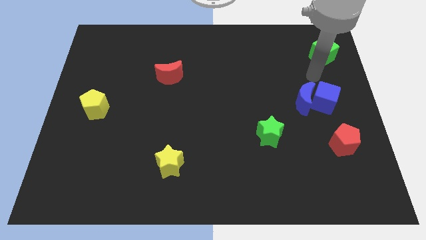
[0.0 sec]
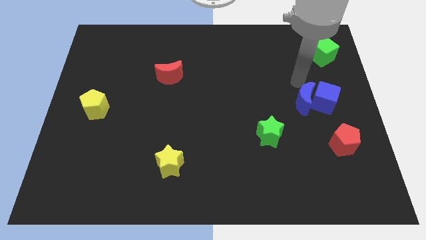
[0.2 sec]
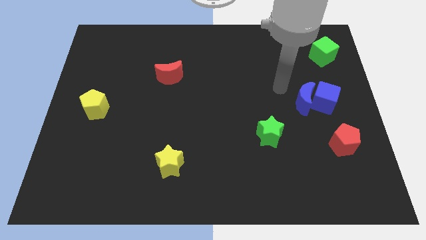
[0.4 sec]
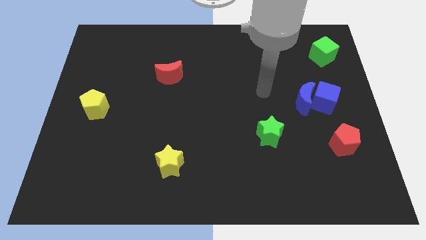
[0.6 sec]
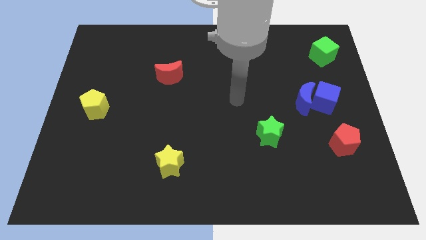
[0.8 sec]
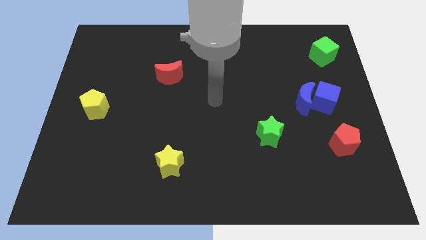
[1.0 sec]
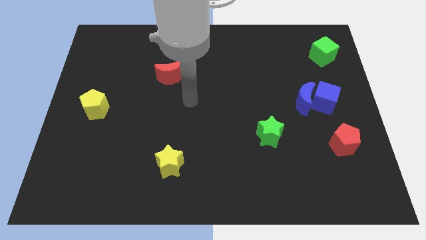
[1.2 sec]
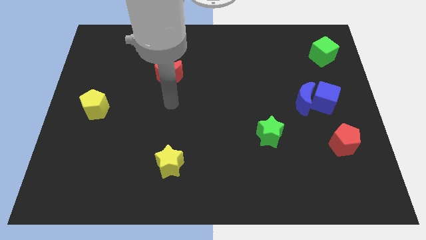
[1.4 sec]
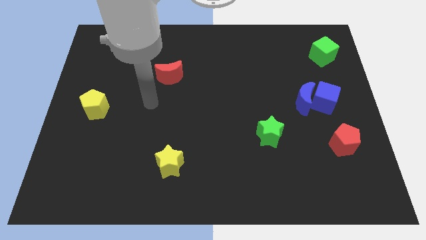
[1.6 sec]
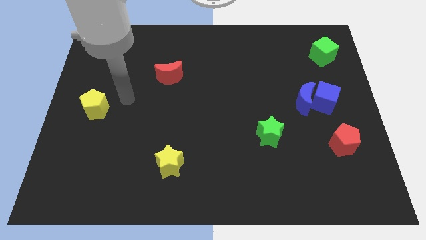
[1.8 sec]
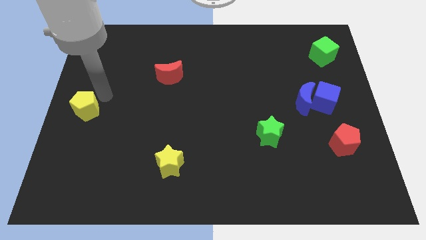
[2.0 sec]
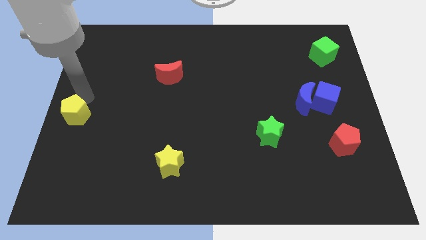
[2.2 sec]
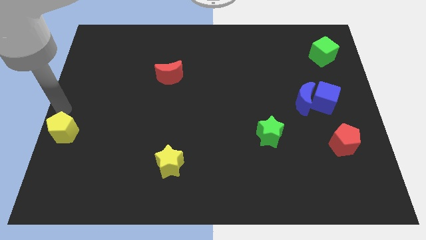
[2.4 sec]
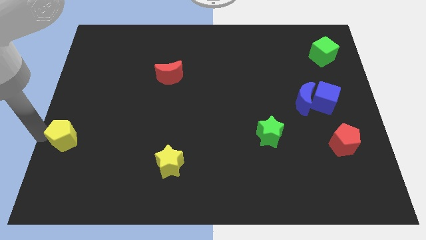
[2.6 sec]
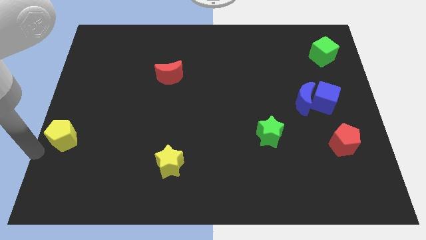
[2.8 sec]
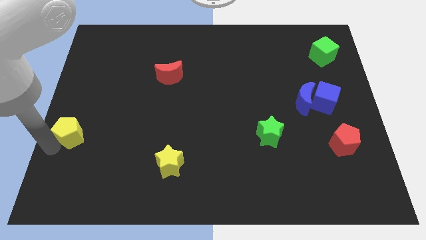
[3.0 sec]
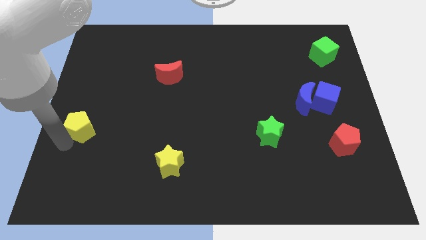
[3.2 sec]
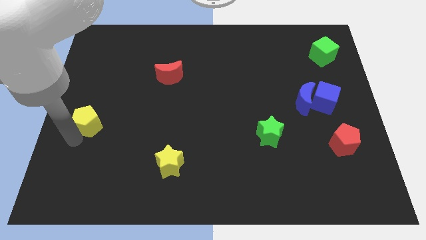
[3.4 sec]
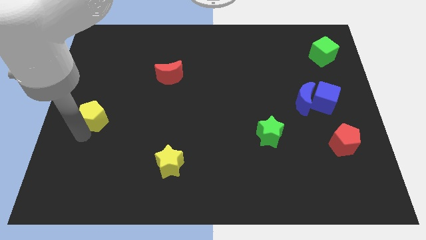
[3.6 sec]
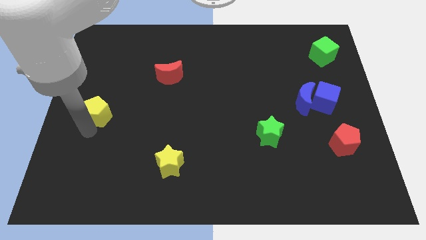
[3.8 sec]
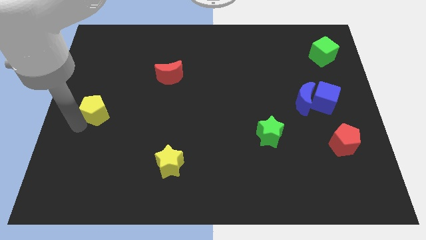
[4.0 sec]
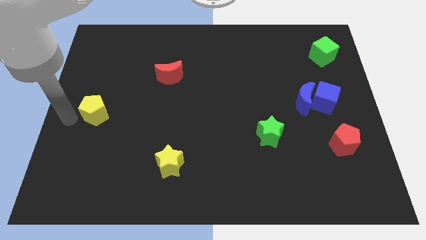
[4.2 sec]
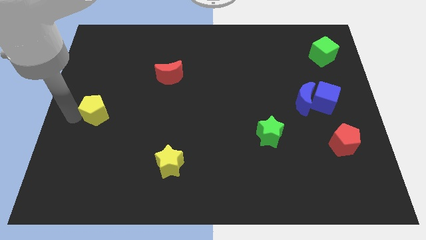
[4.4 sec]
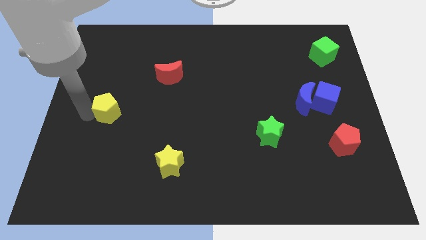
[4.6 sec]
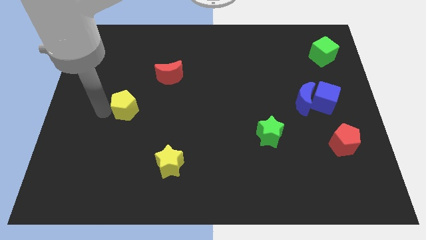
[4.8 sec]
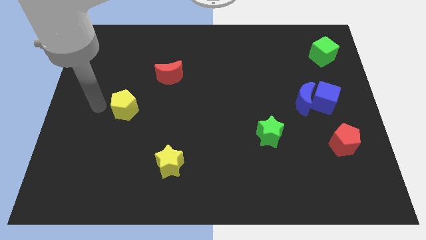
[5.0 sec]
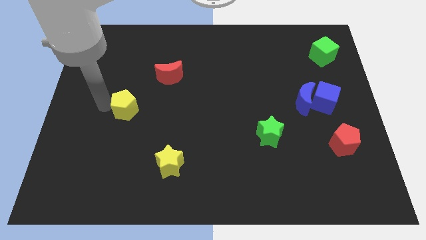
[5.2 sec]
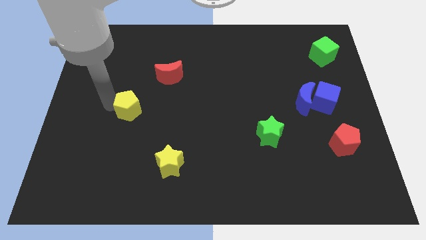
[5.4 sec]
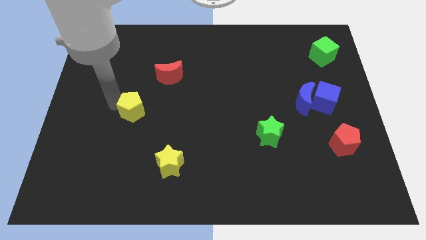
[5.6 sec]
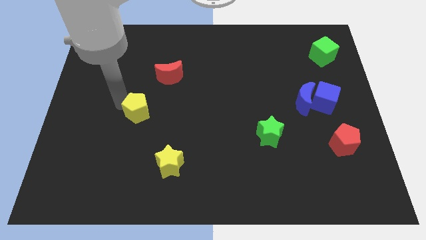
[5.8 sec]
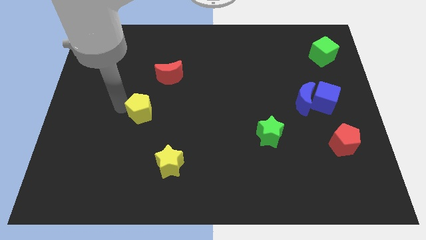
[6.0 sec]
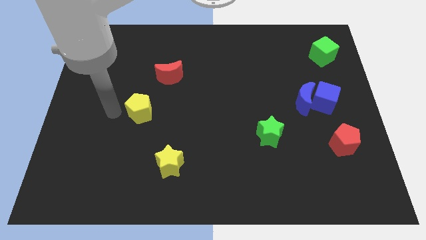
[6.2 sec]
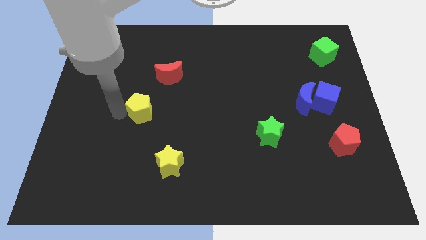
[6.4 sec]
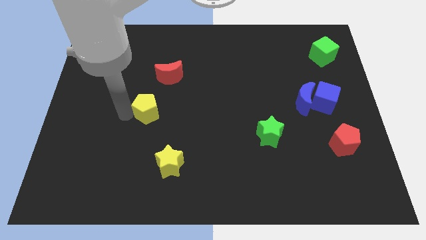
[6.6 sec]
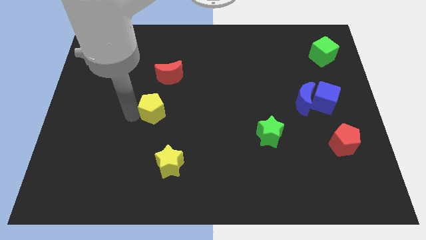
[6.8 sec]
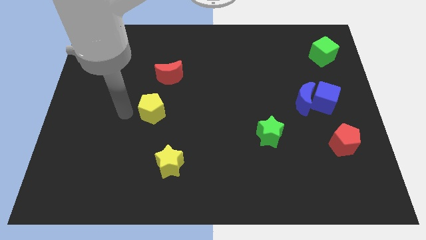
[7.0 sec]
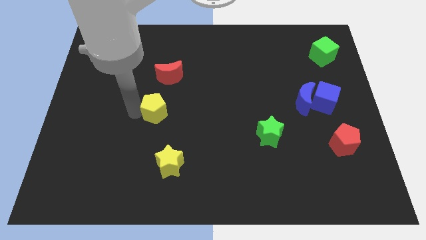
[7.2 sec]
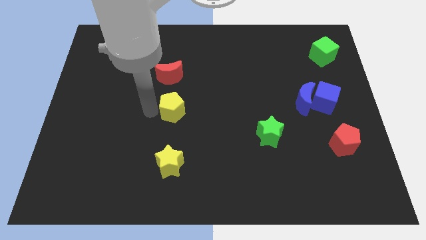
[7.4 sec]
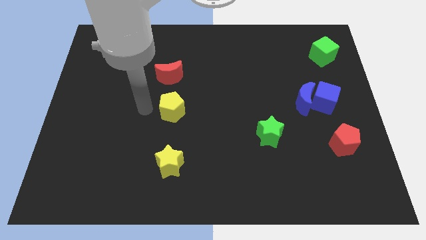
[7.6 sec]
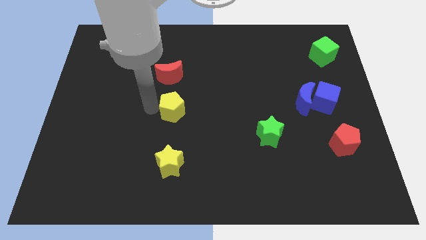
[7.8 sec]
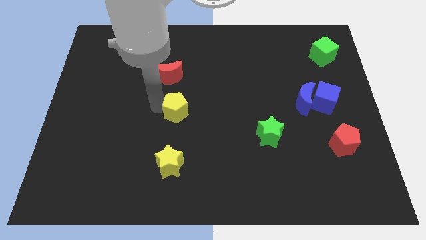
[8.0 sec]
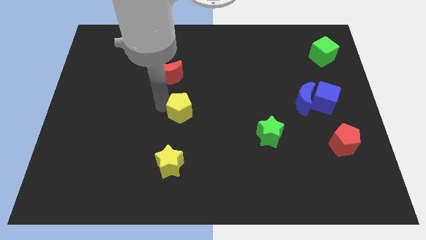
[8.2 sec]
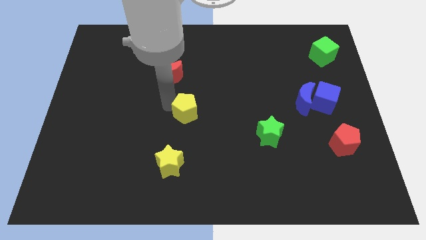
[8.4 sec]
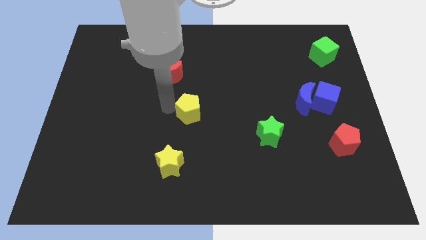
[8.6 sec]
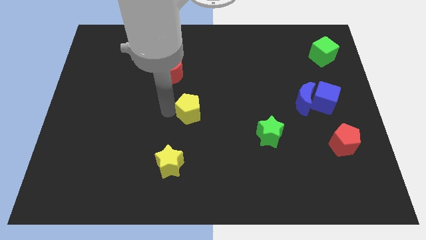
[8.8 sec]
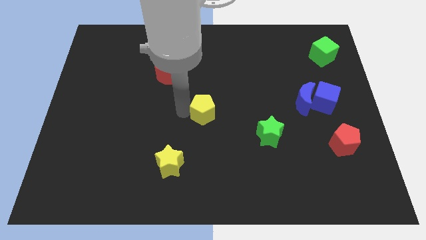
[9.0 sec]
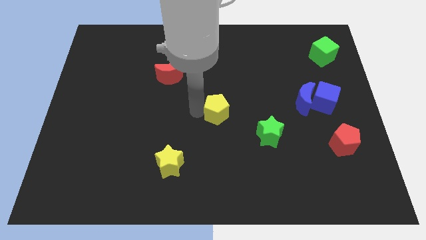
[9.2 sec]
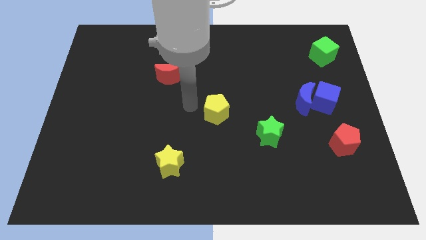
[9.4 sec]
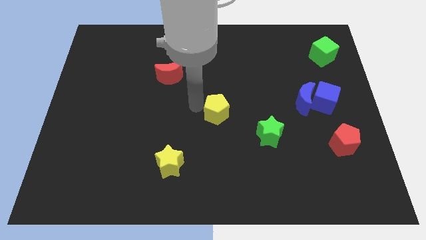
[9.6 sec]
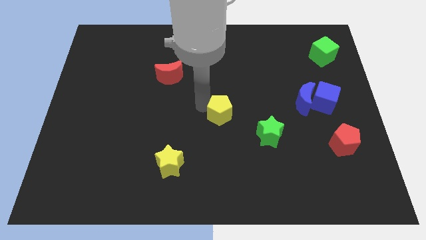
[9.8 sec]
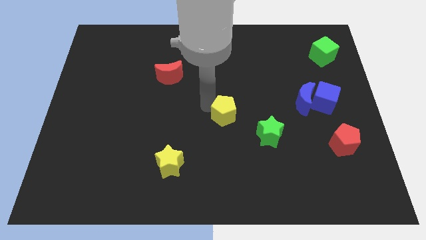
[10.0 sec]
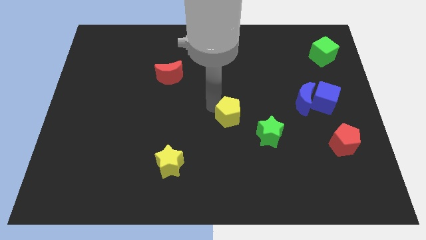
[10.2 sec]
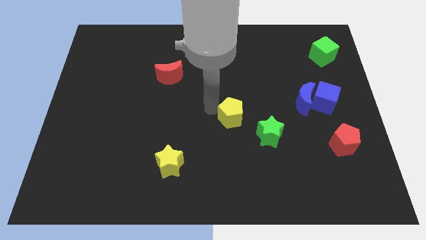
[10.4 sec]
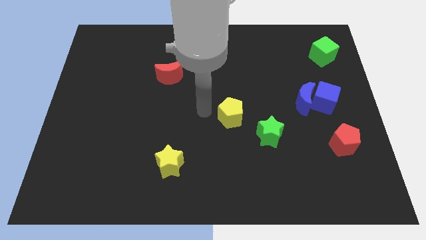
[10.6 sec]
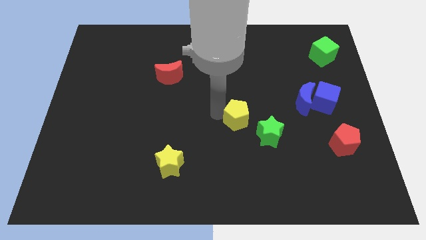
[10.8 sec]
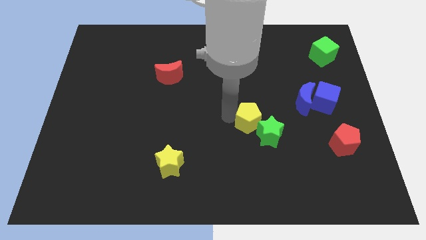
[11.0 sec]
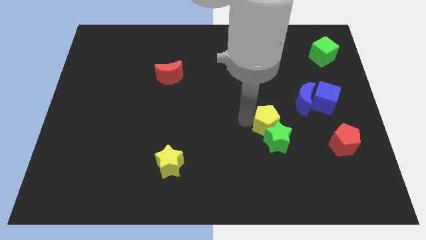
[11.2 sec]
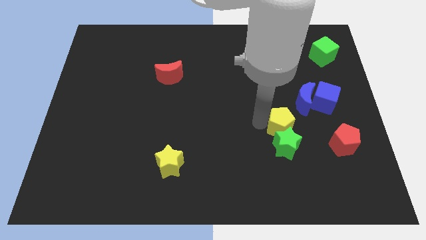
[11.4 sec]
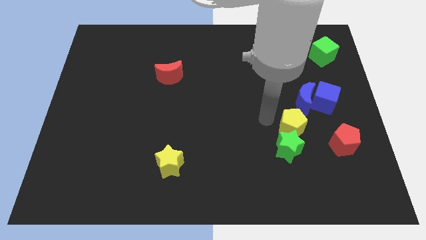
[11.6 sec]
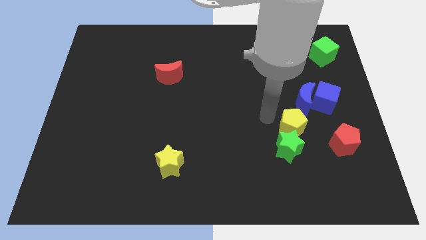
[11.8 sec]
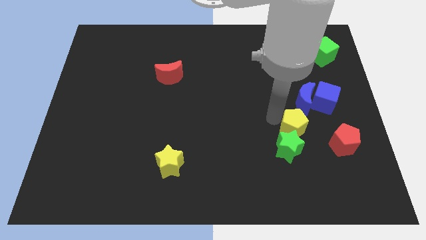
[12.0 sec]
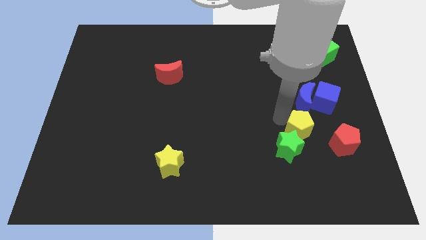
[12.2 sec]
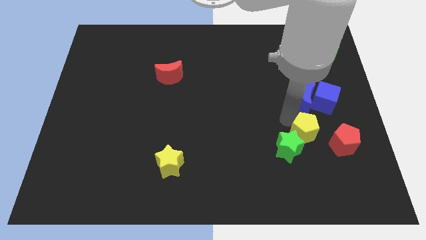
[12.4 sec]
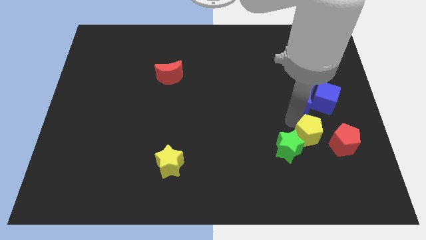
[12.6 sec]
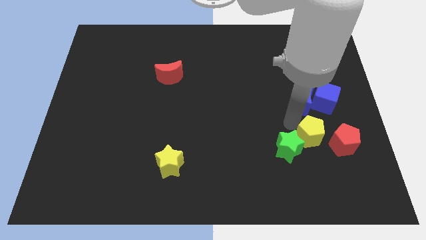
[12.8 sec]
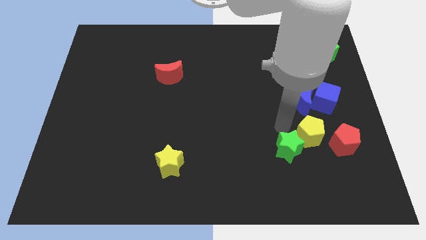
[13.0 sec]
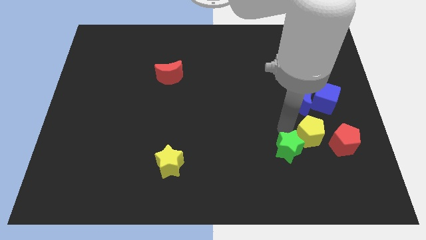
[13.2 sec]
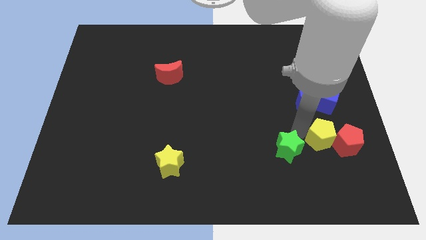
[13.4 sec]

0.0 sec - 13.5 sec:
push the yellow pentagon close to the red pentagon

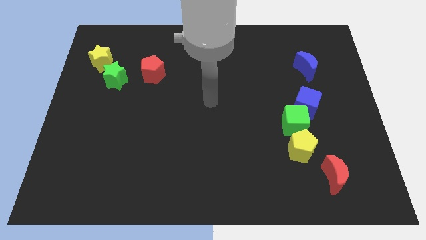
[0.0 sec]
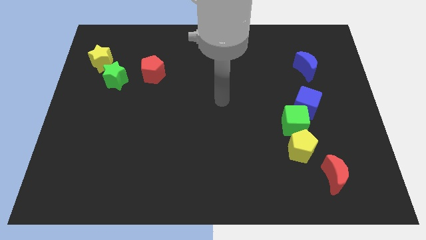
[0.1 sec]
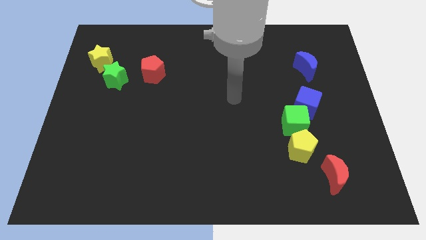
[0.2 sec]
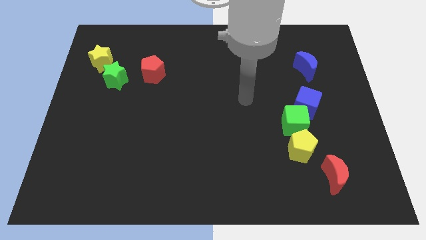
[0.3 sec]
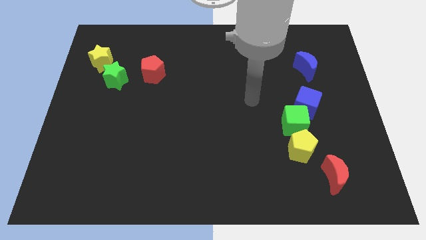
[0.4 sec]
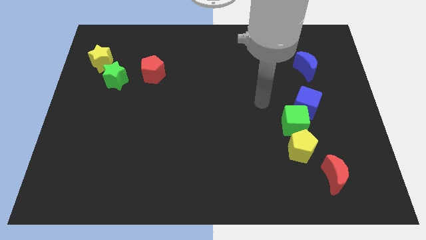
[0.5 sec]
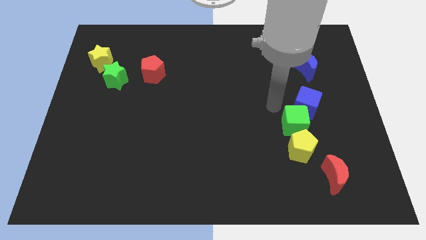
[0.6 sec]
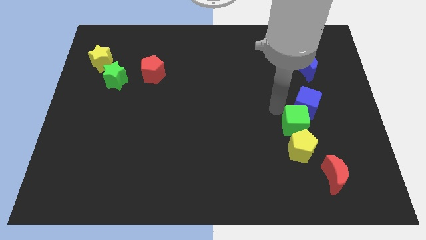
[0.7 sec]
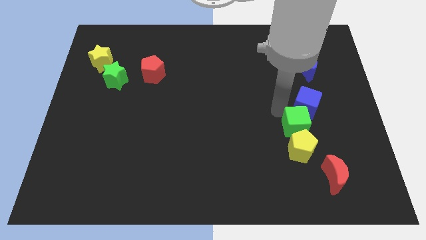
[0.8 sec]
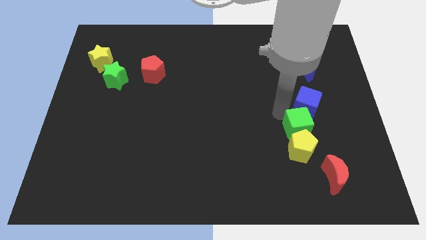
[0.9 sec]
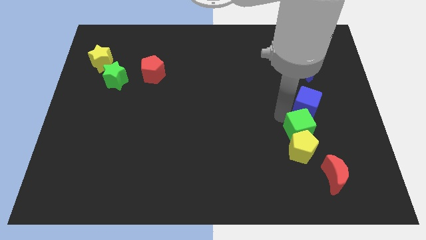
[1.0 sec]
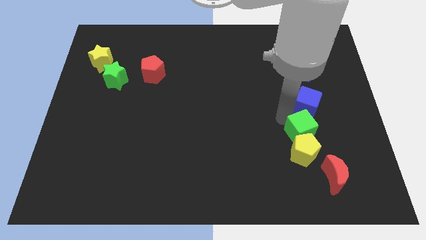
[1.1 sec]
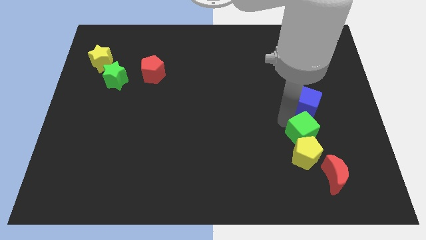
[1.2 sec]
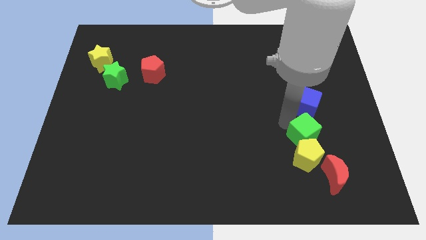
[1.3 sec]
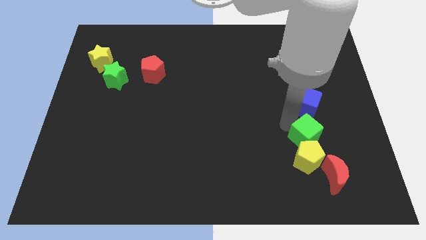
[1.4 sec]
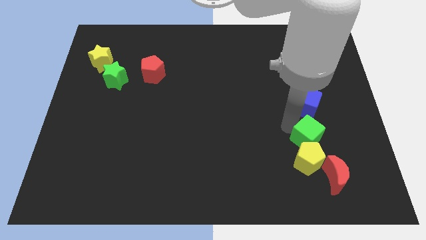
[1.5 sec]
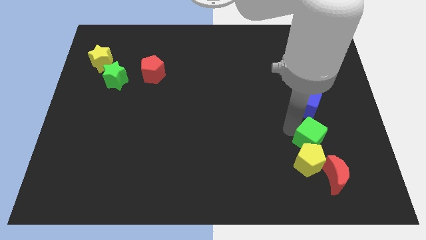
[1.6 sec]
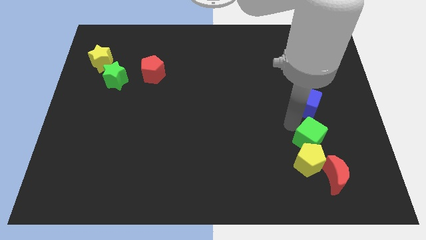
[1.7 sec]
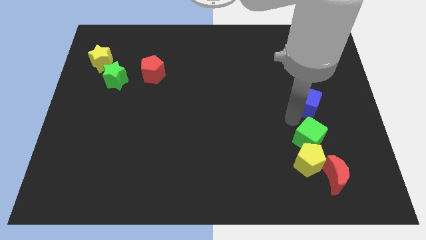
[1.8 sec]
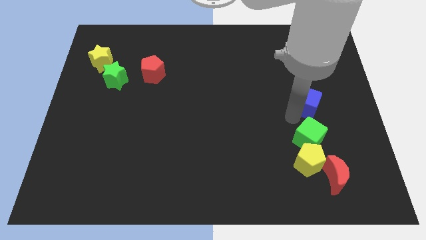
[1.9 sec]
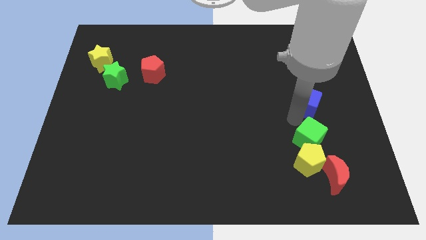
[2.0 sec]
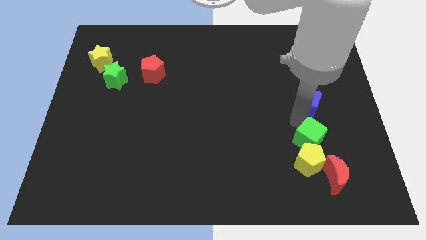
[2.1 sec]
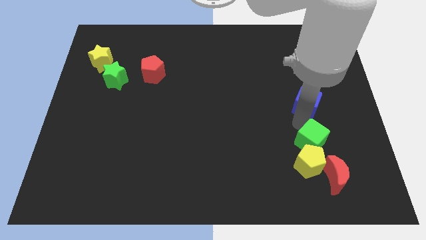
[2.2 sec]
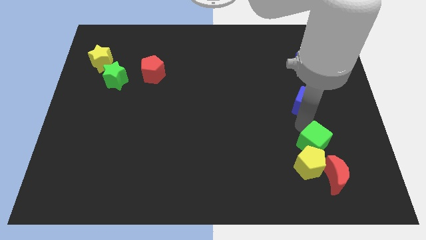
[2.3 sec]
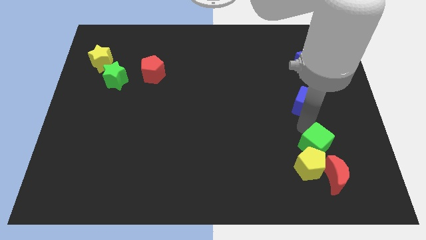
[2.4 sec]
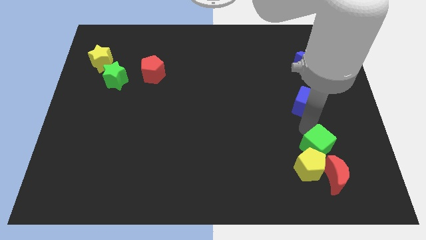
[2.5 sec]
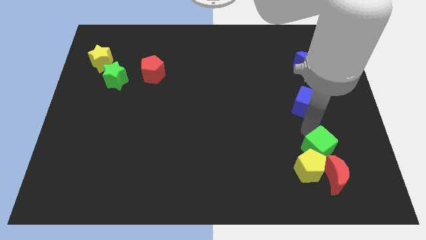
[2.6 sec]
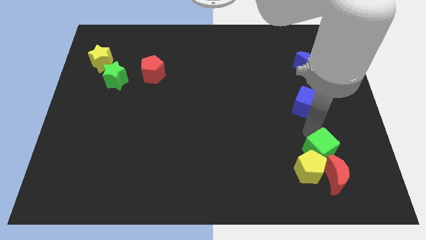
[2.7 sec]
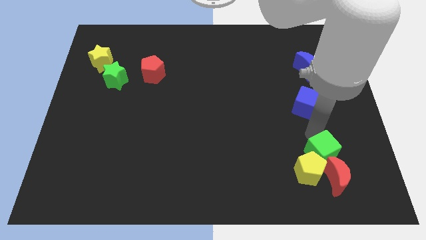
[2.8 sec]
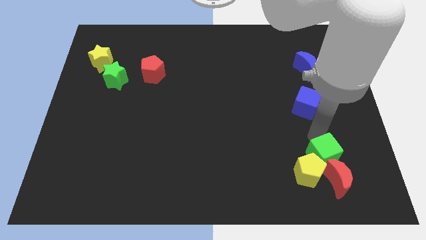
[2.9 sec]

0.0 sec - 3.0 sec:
move the green cube towards the red moon
